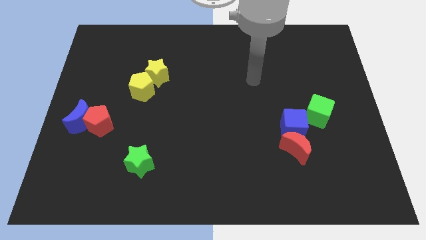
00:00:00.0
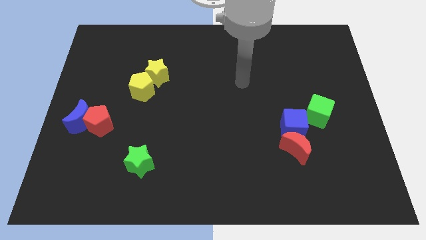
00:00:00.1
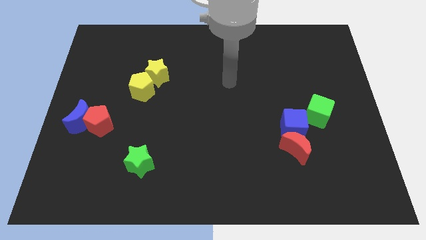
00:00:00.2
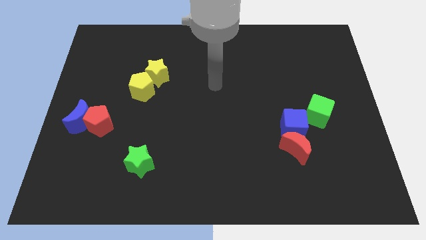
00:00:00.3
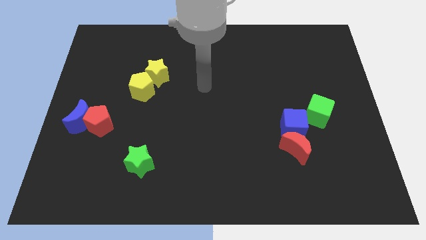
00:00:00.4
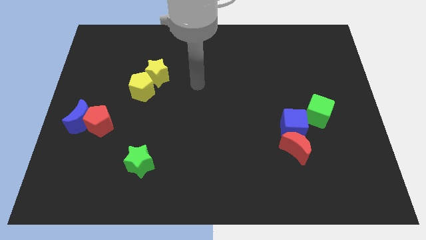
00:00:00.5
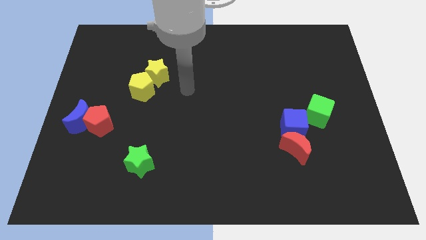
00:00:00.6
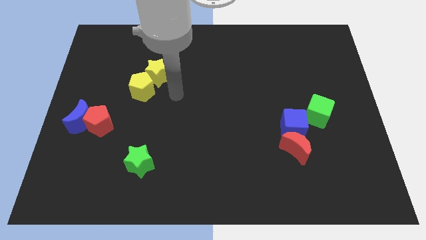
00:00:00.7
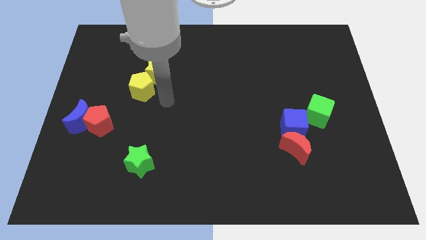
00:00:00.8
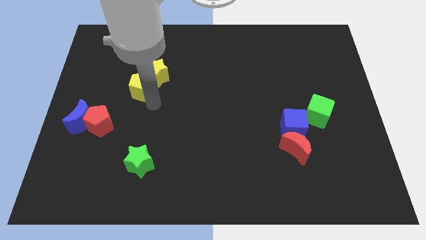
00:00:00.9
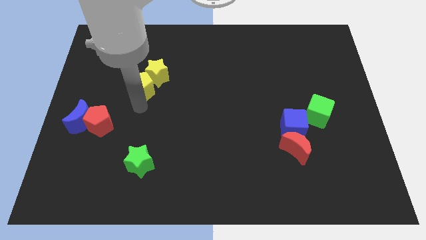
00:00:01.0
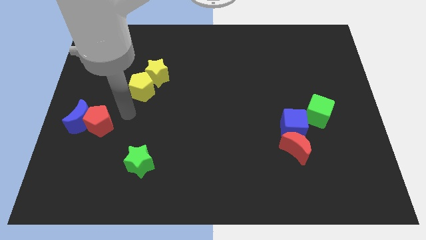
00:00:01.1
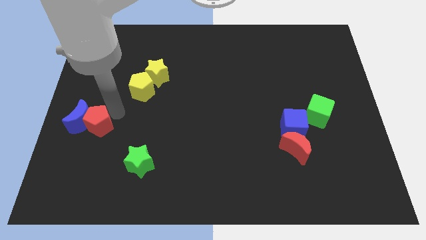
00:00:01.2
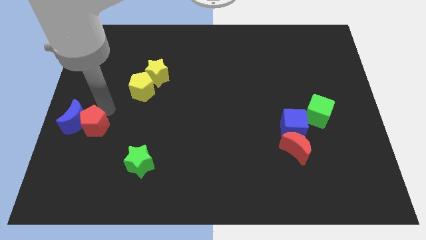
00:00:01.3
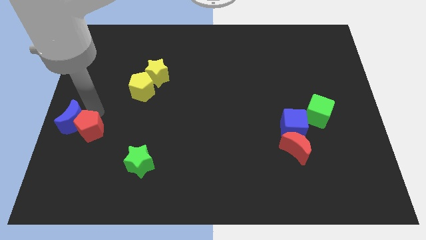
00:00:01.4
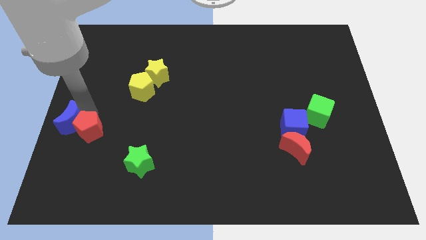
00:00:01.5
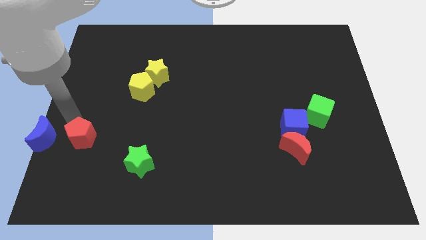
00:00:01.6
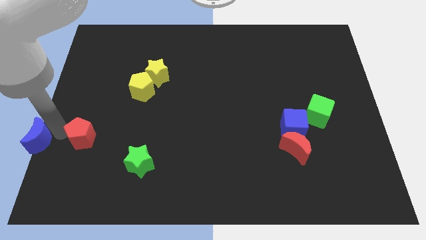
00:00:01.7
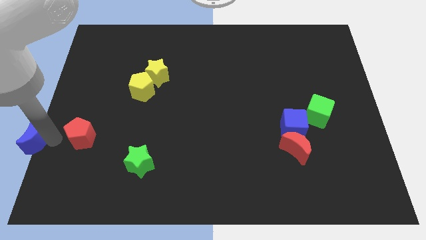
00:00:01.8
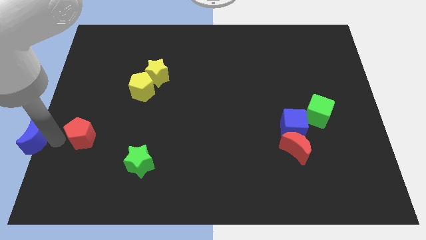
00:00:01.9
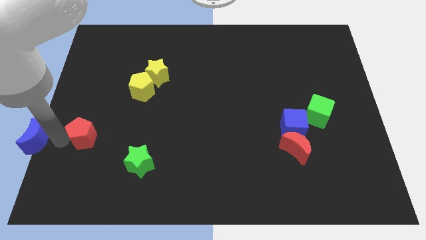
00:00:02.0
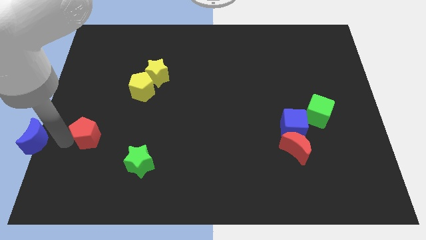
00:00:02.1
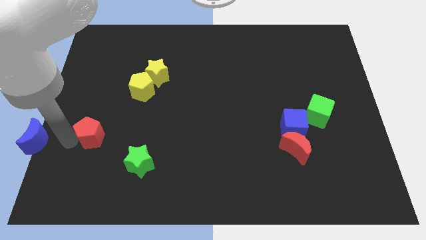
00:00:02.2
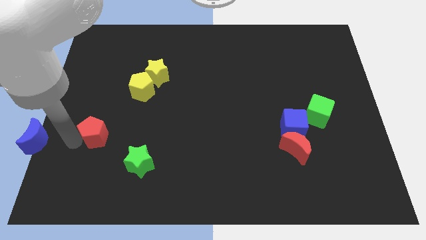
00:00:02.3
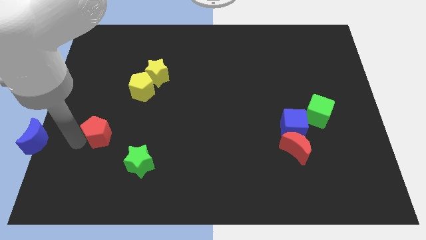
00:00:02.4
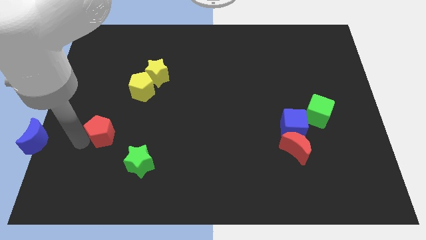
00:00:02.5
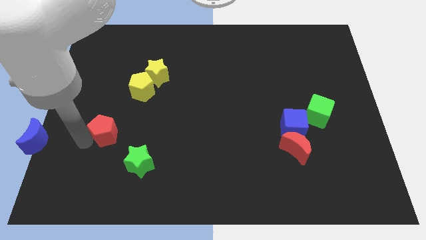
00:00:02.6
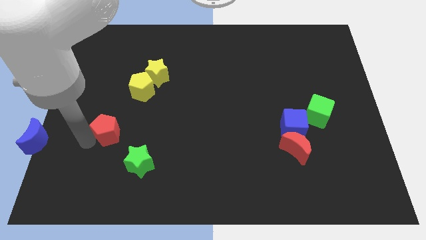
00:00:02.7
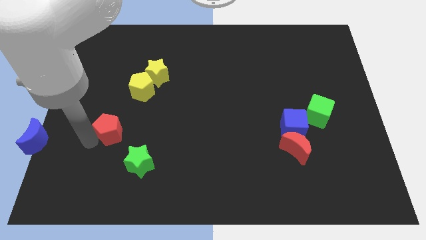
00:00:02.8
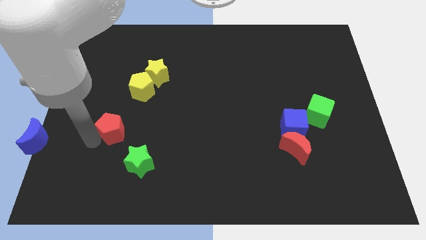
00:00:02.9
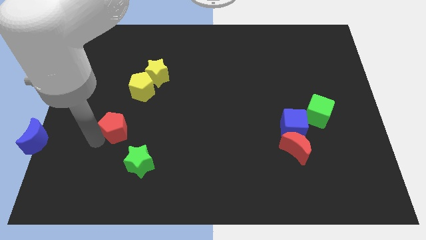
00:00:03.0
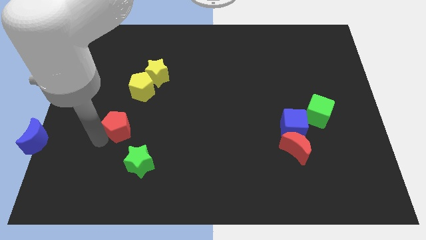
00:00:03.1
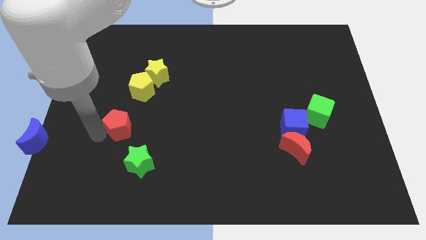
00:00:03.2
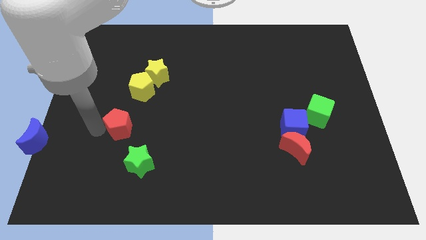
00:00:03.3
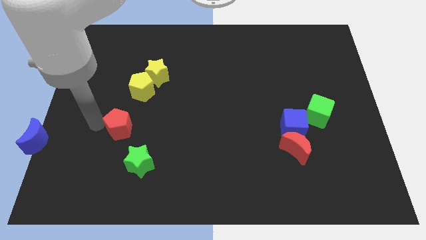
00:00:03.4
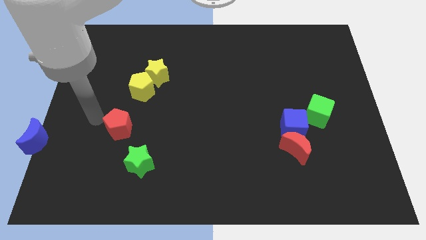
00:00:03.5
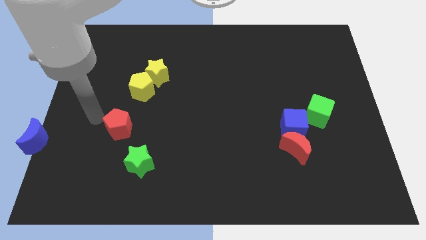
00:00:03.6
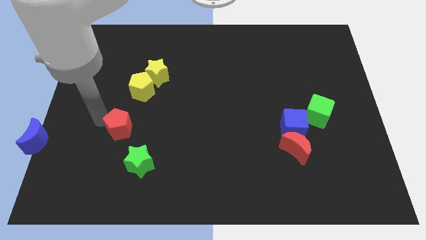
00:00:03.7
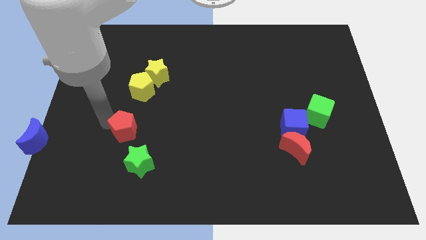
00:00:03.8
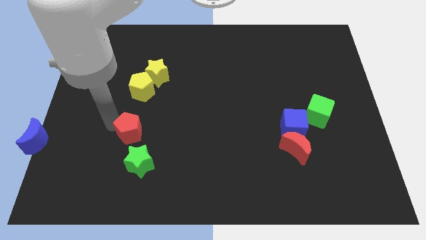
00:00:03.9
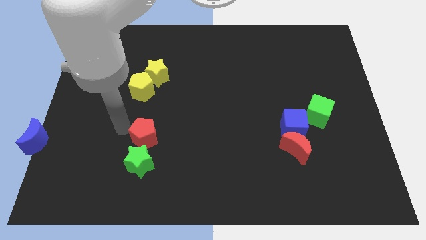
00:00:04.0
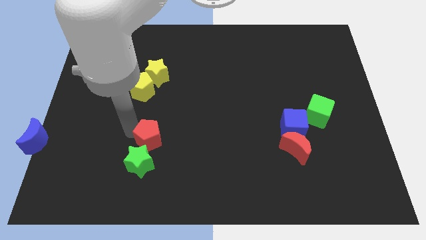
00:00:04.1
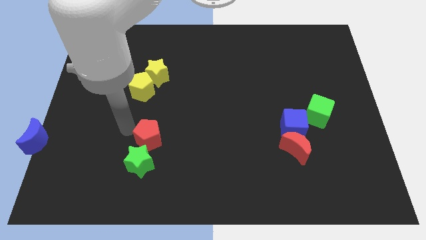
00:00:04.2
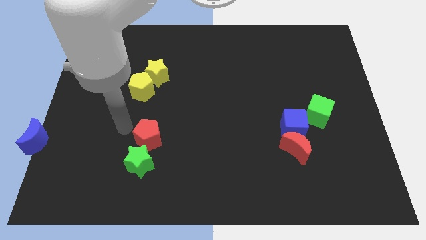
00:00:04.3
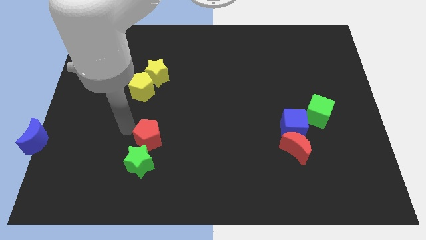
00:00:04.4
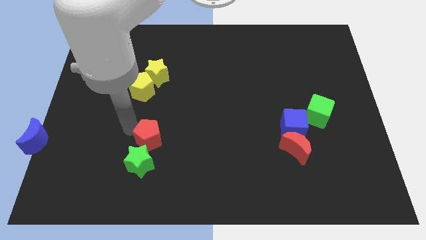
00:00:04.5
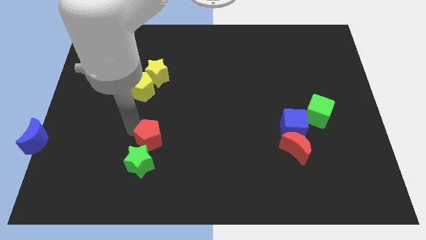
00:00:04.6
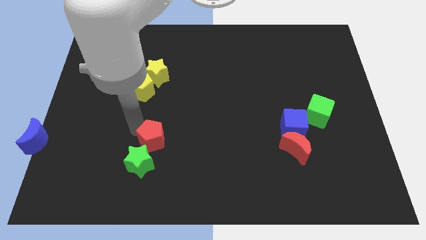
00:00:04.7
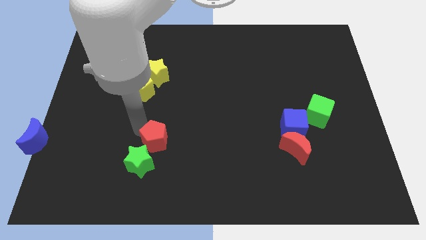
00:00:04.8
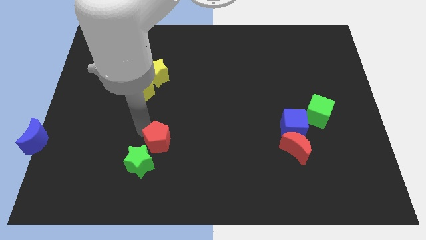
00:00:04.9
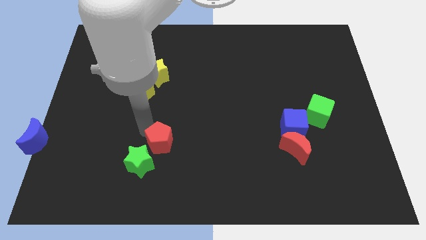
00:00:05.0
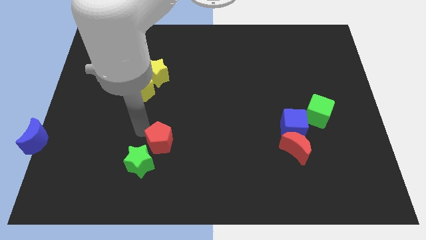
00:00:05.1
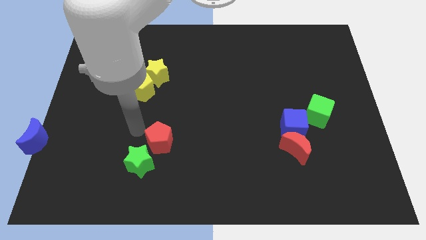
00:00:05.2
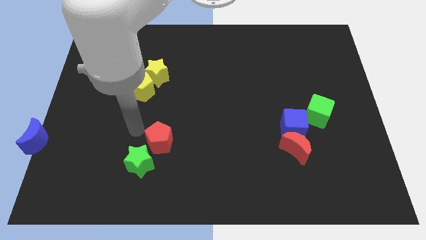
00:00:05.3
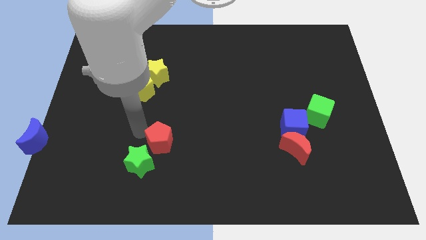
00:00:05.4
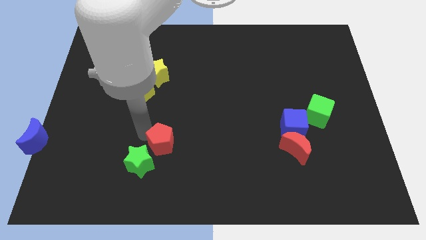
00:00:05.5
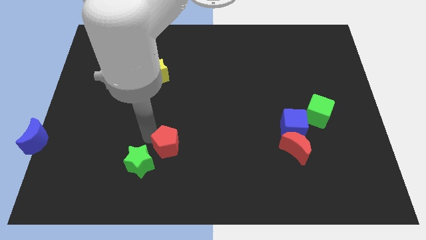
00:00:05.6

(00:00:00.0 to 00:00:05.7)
slide the red pentagon just right of the green star

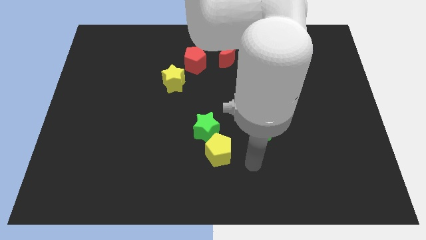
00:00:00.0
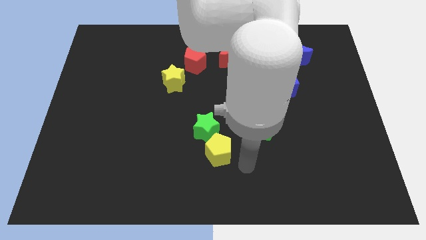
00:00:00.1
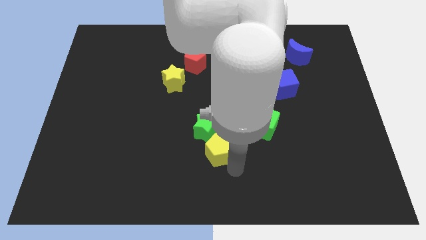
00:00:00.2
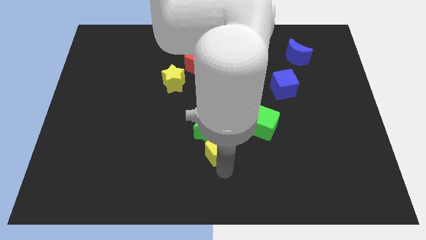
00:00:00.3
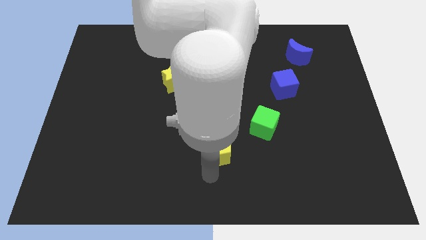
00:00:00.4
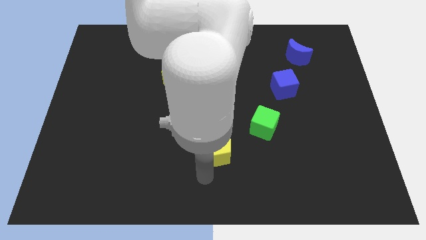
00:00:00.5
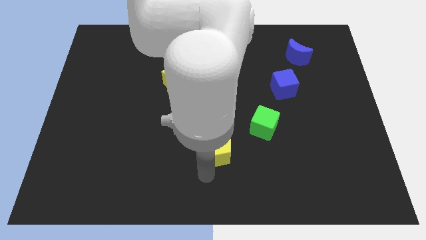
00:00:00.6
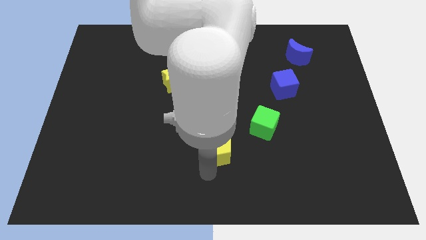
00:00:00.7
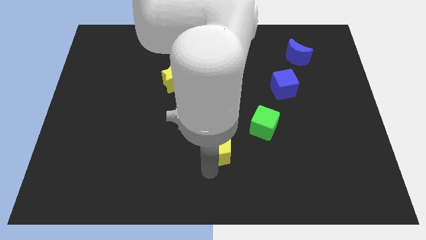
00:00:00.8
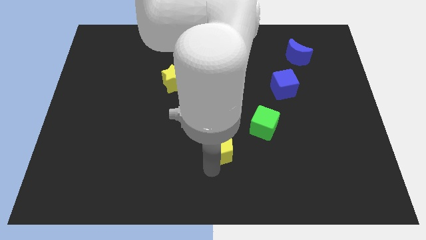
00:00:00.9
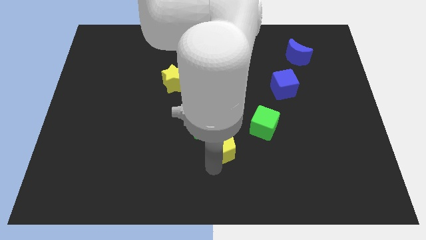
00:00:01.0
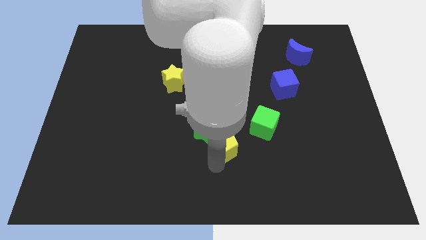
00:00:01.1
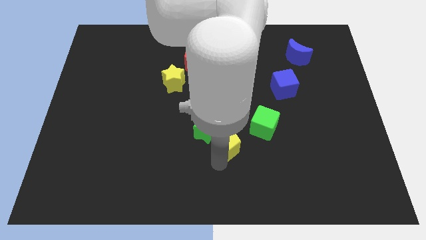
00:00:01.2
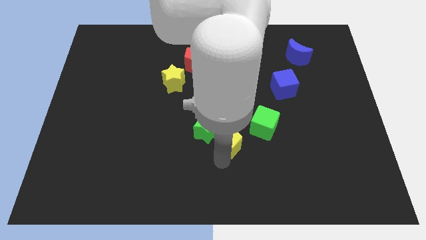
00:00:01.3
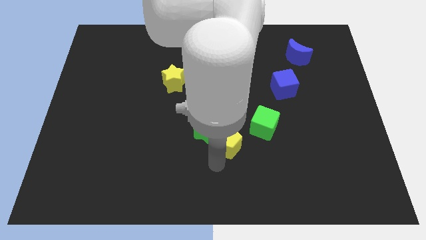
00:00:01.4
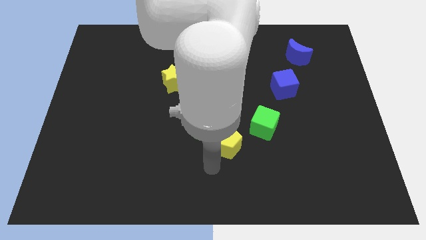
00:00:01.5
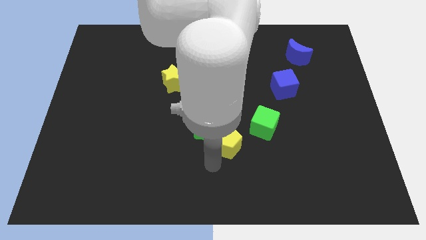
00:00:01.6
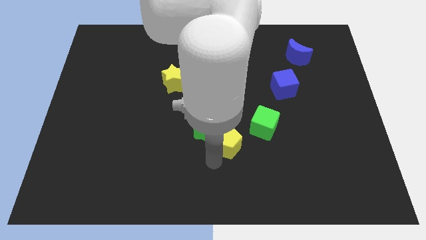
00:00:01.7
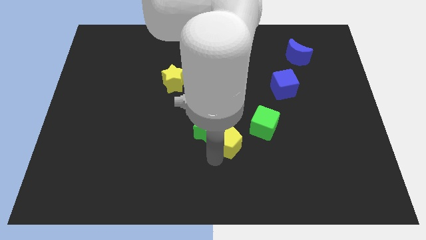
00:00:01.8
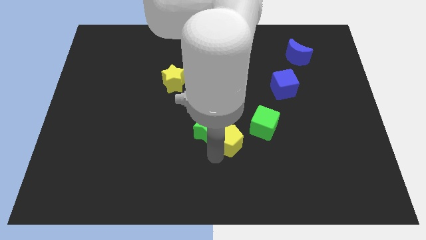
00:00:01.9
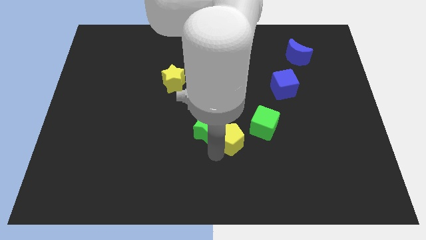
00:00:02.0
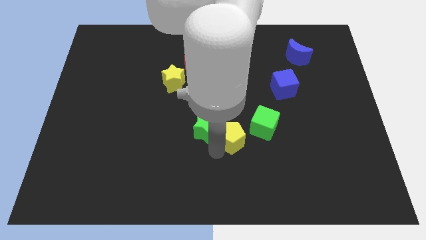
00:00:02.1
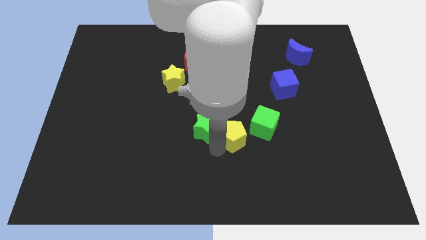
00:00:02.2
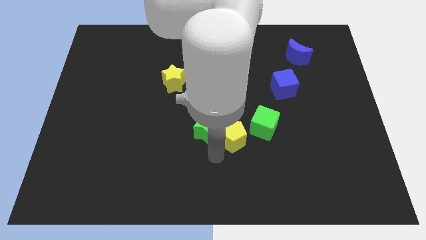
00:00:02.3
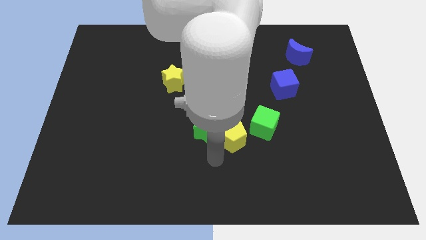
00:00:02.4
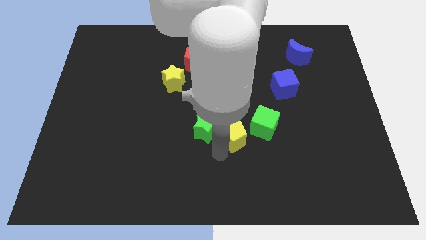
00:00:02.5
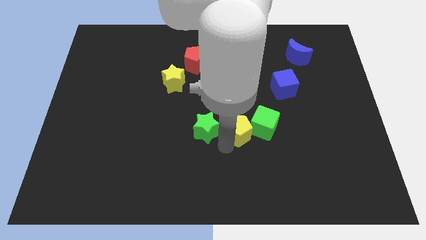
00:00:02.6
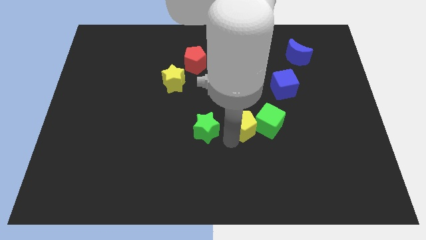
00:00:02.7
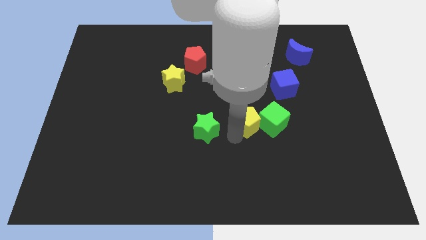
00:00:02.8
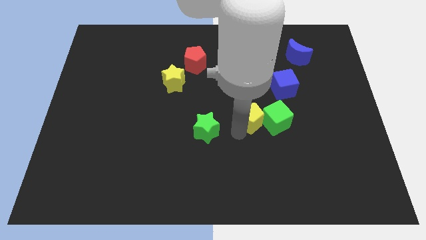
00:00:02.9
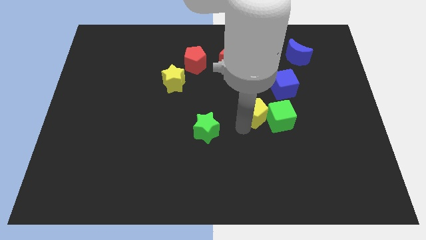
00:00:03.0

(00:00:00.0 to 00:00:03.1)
move the yellow pentagon to the bottom left of the blue cube
